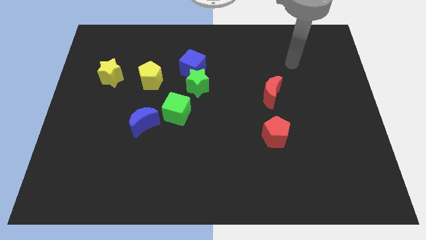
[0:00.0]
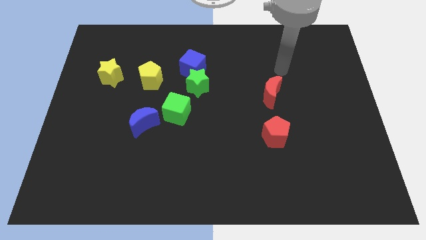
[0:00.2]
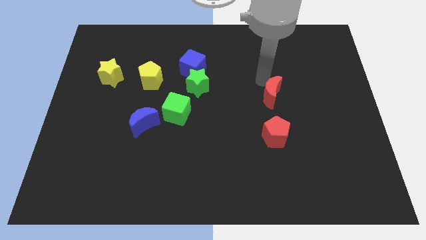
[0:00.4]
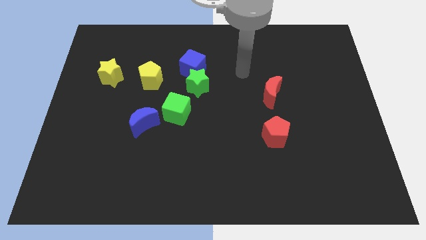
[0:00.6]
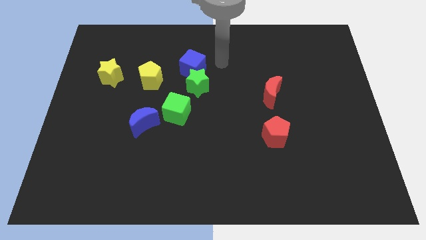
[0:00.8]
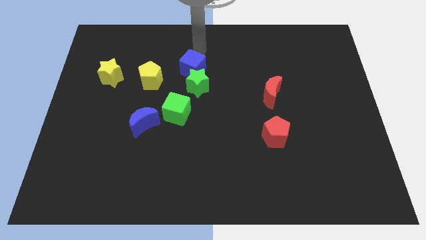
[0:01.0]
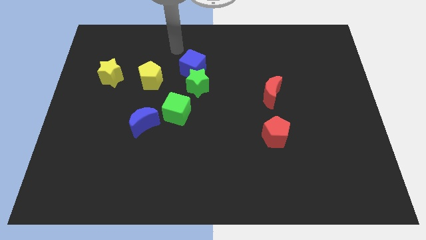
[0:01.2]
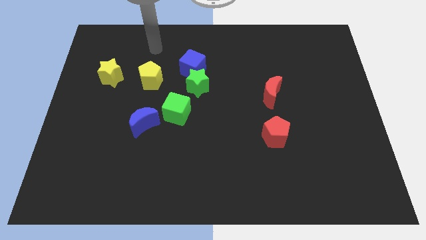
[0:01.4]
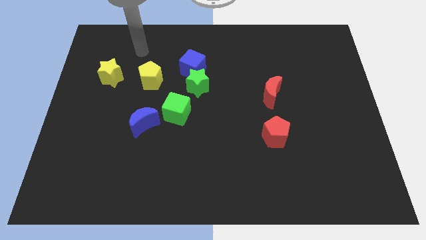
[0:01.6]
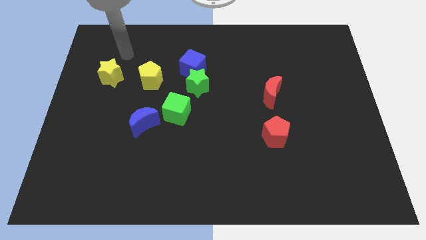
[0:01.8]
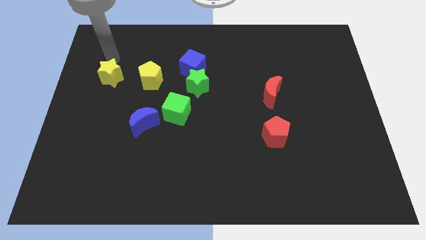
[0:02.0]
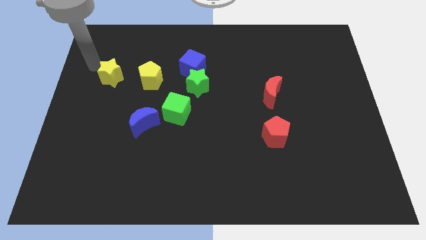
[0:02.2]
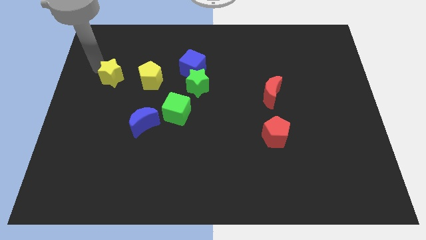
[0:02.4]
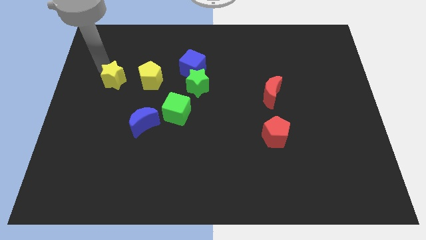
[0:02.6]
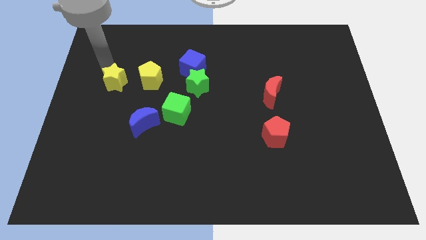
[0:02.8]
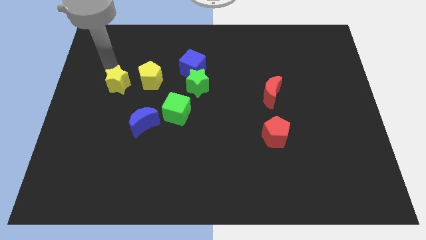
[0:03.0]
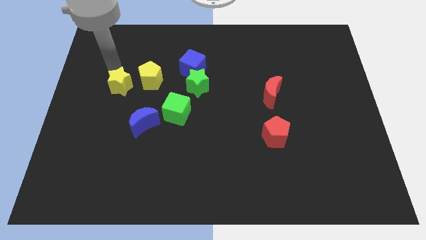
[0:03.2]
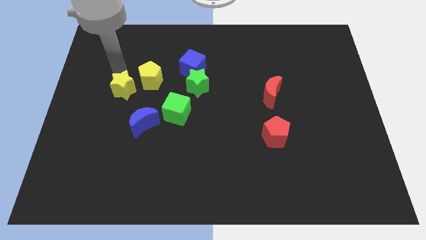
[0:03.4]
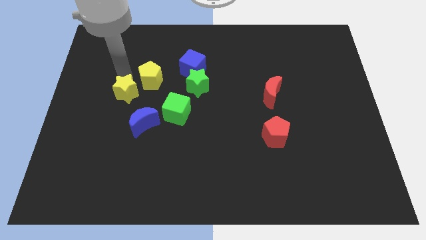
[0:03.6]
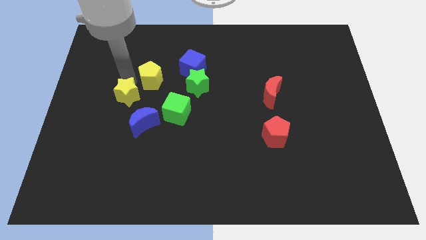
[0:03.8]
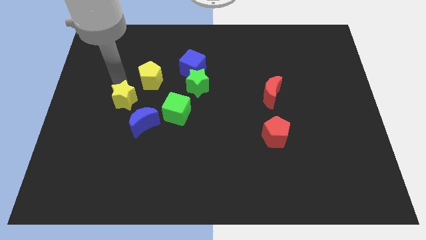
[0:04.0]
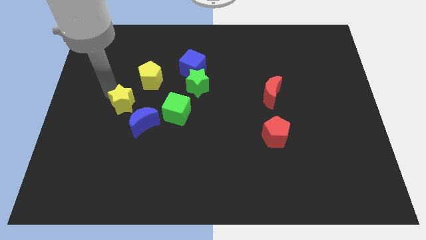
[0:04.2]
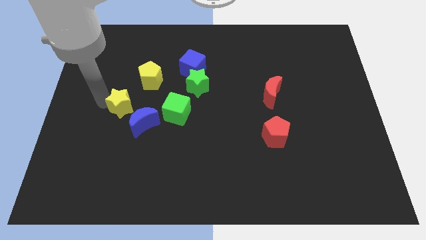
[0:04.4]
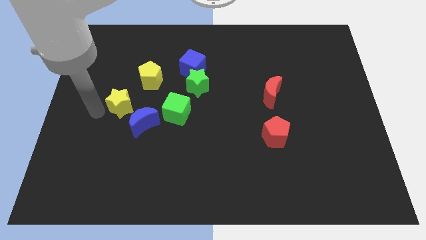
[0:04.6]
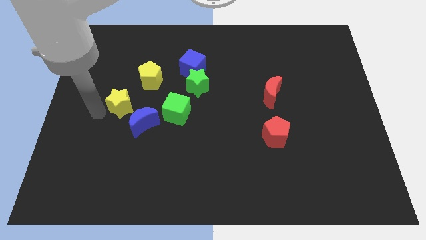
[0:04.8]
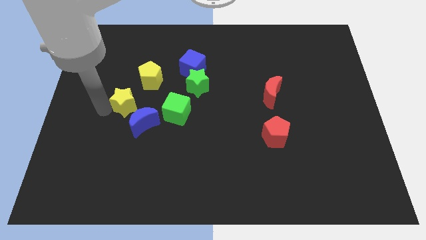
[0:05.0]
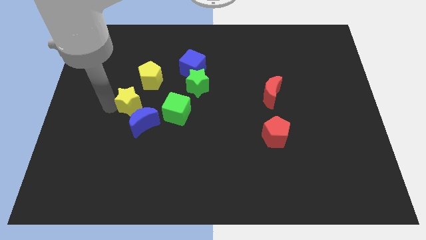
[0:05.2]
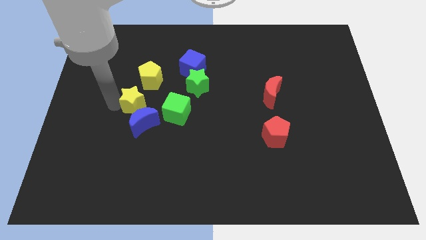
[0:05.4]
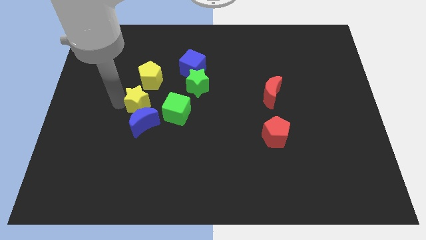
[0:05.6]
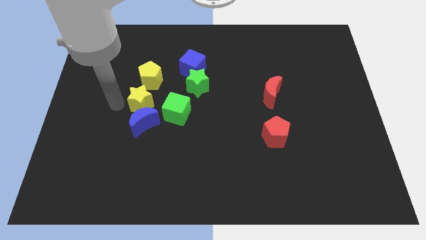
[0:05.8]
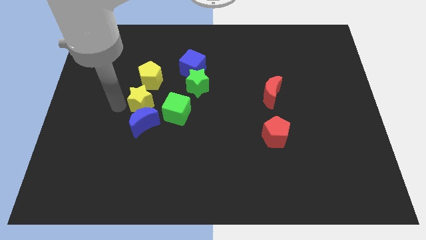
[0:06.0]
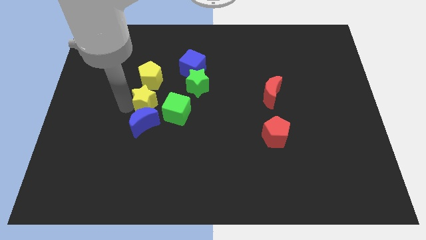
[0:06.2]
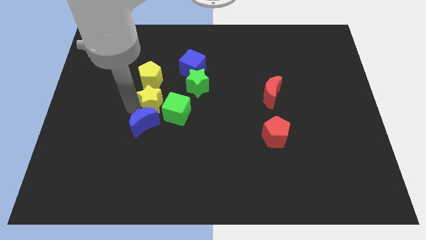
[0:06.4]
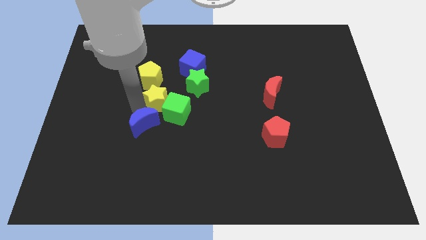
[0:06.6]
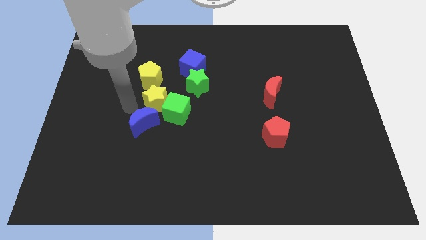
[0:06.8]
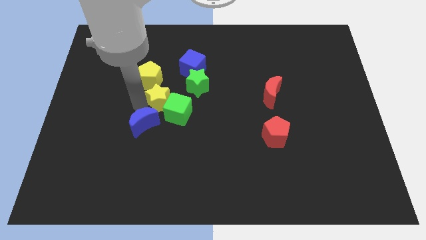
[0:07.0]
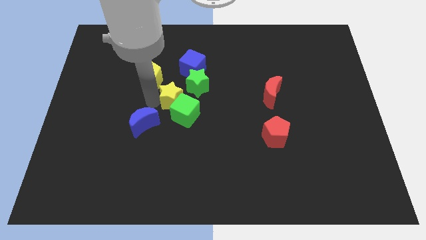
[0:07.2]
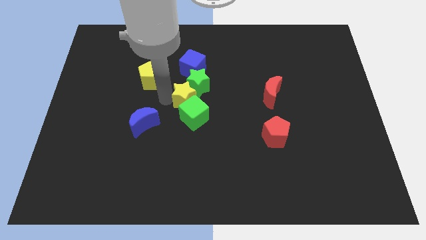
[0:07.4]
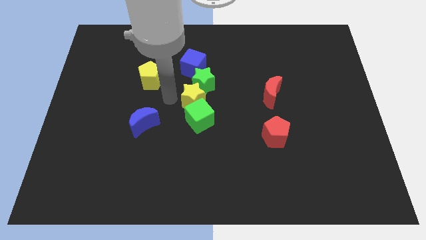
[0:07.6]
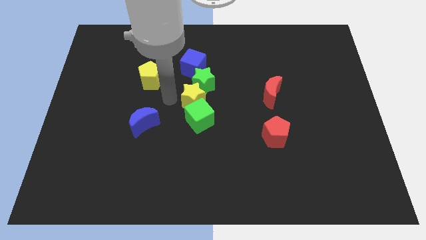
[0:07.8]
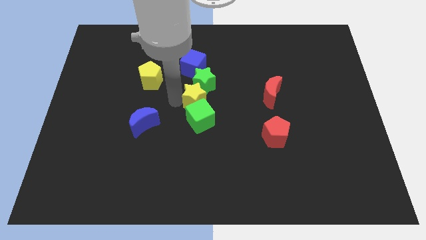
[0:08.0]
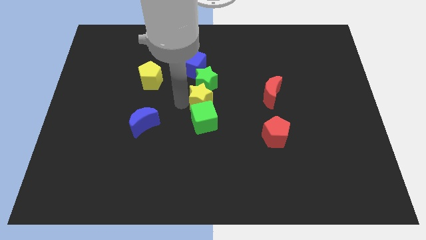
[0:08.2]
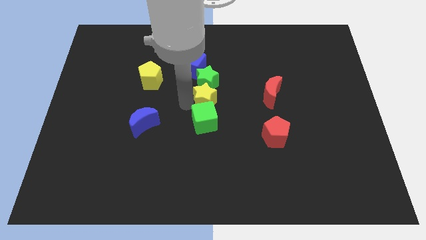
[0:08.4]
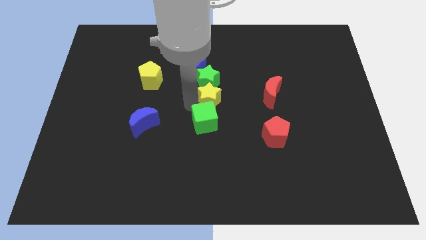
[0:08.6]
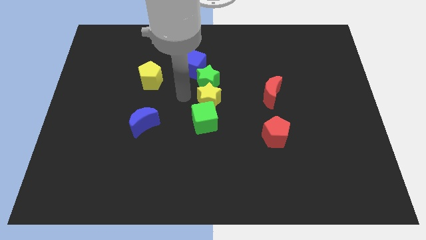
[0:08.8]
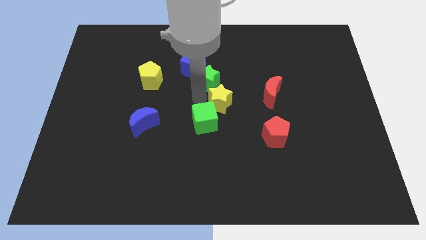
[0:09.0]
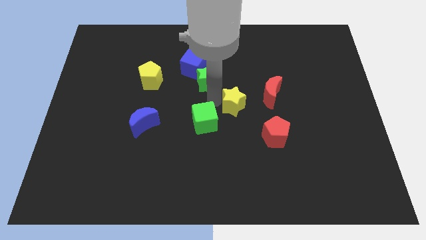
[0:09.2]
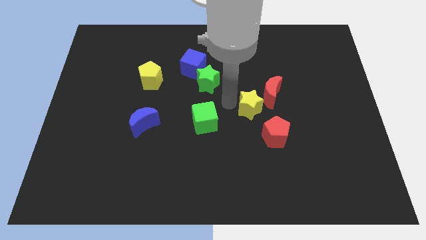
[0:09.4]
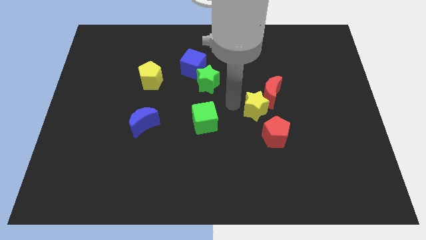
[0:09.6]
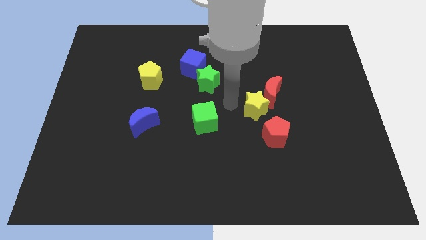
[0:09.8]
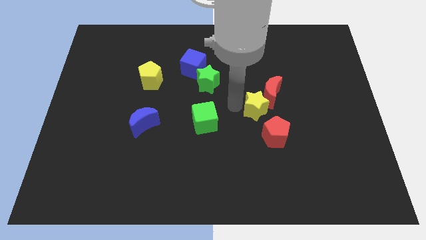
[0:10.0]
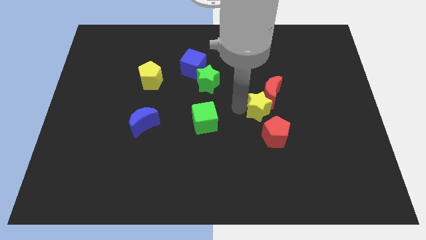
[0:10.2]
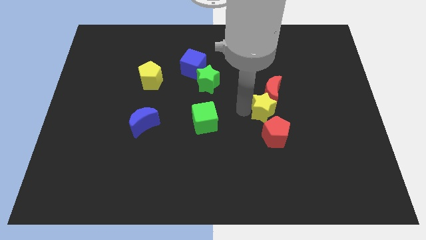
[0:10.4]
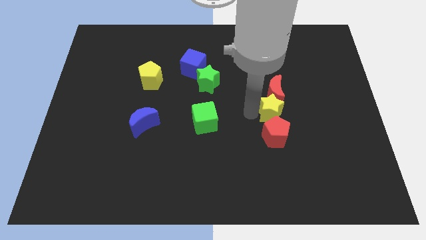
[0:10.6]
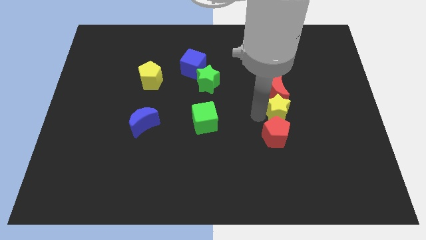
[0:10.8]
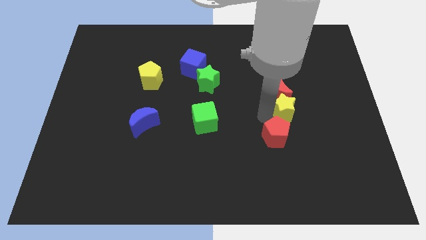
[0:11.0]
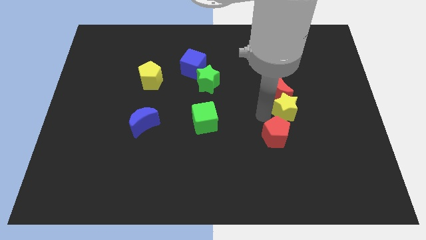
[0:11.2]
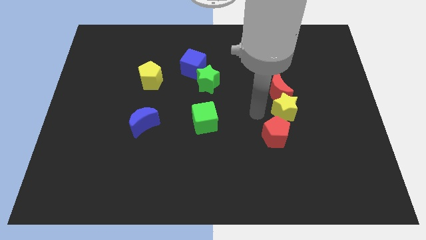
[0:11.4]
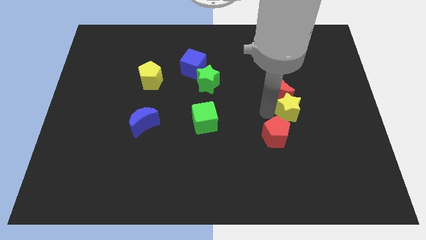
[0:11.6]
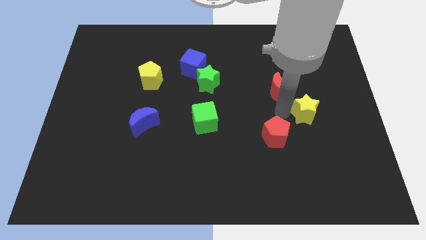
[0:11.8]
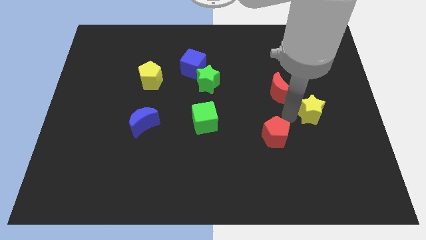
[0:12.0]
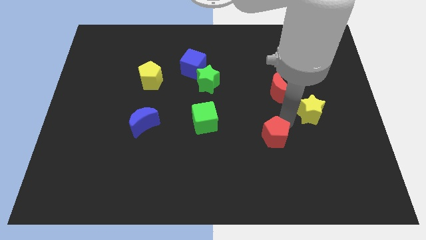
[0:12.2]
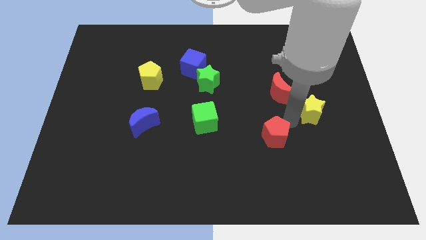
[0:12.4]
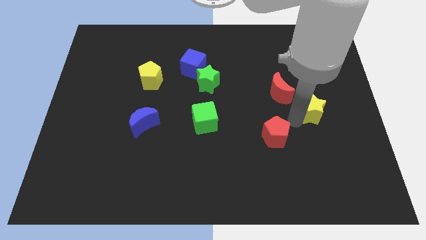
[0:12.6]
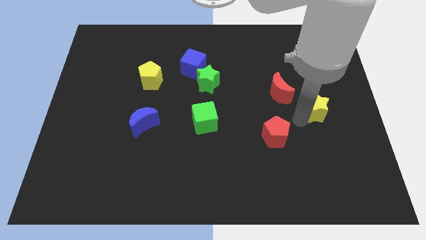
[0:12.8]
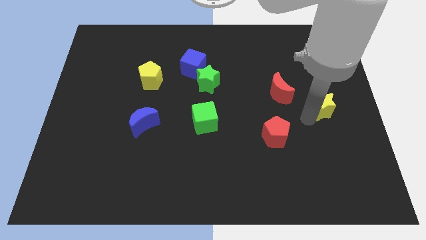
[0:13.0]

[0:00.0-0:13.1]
put the yellow star to the right side

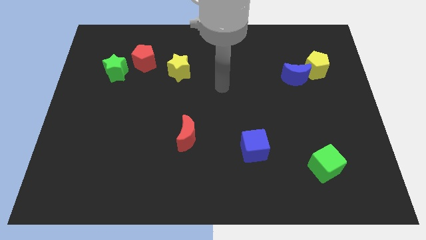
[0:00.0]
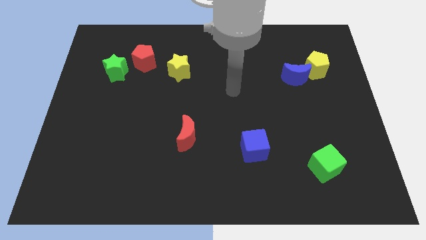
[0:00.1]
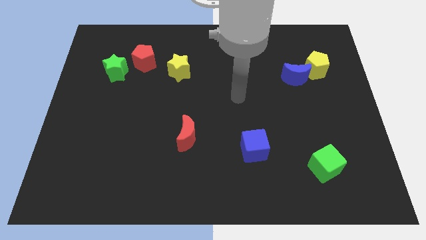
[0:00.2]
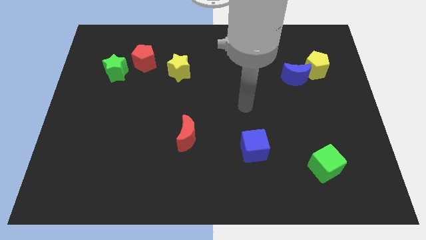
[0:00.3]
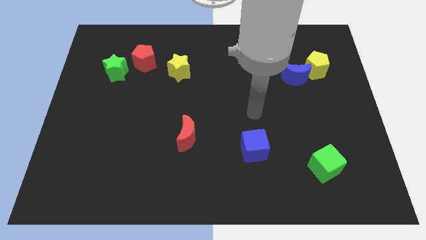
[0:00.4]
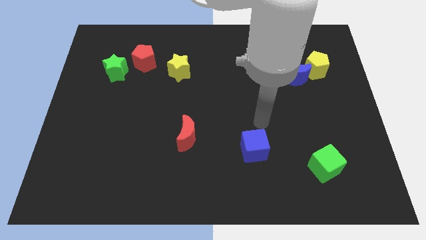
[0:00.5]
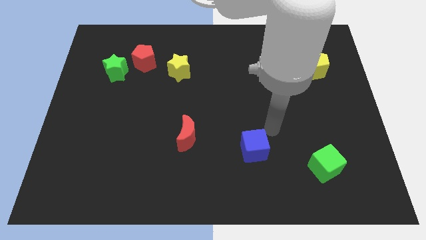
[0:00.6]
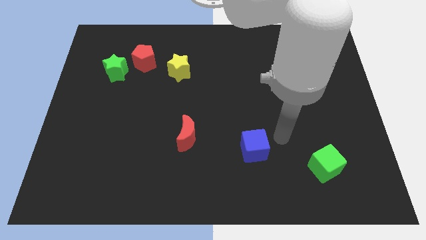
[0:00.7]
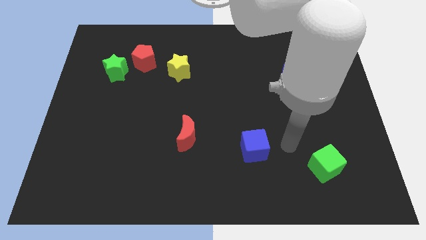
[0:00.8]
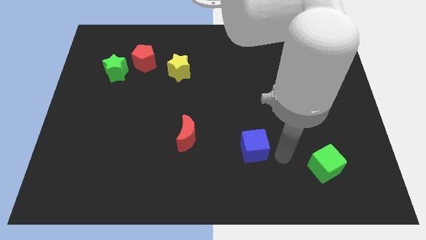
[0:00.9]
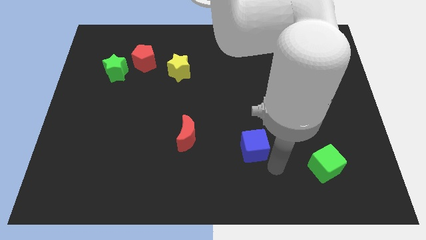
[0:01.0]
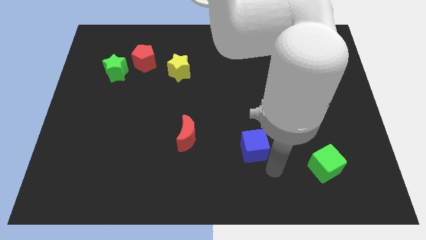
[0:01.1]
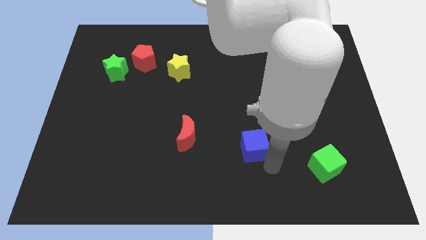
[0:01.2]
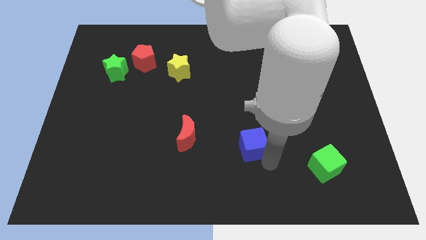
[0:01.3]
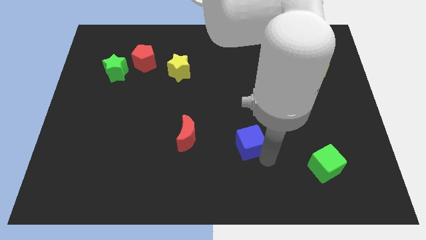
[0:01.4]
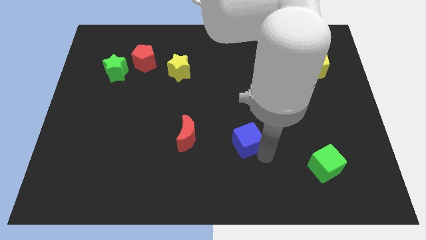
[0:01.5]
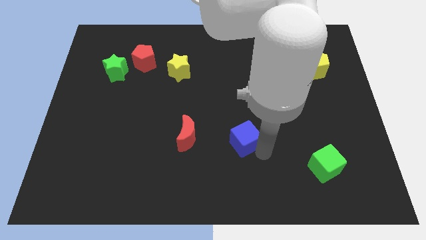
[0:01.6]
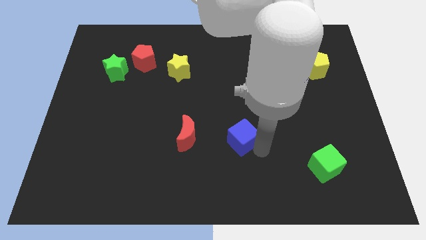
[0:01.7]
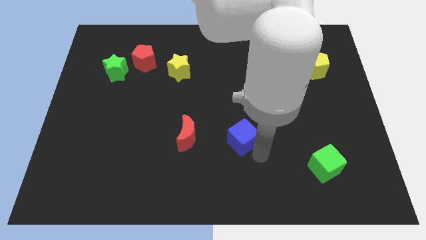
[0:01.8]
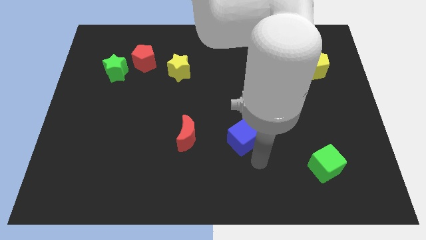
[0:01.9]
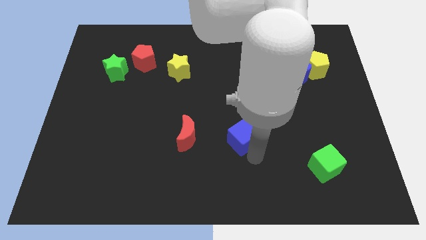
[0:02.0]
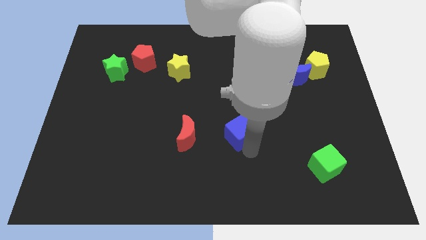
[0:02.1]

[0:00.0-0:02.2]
slide the blue cube to the center
